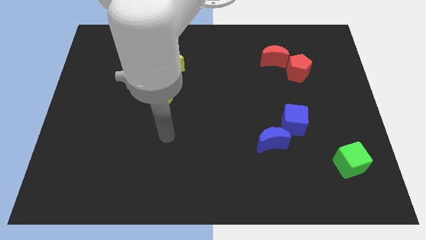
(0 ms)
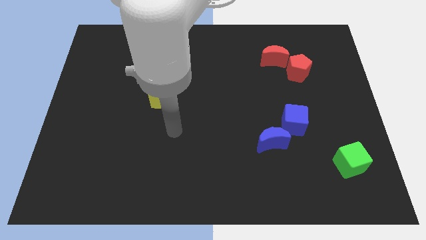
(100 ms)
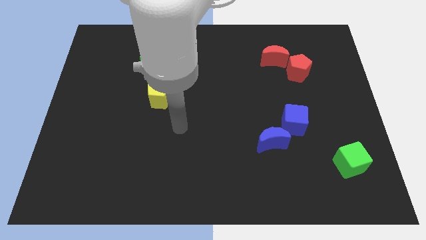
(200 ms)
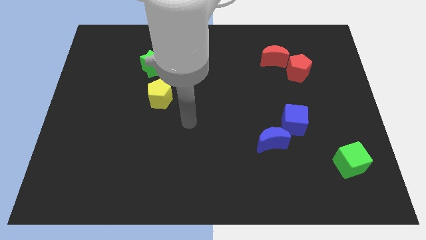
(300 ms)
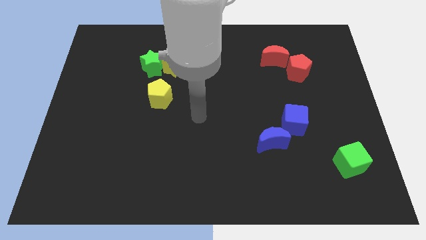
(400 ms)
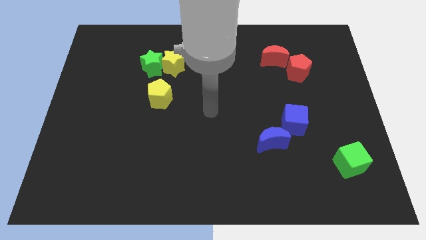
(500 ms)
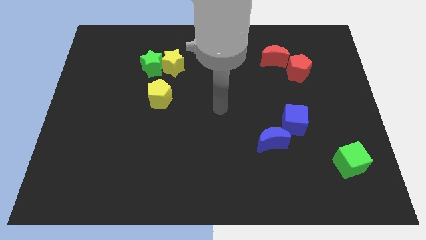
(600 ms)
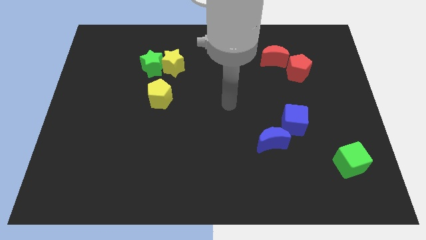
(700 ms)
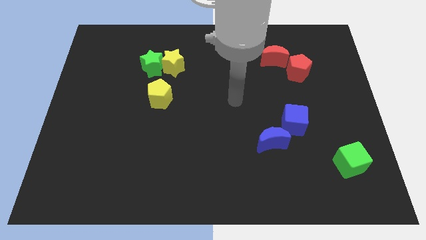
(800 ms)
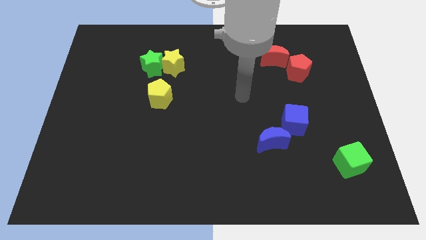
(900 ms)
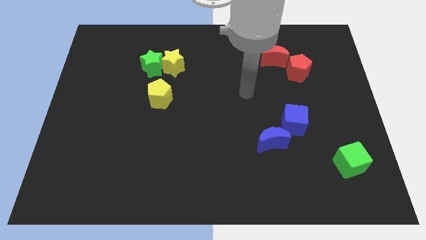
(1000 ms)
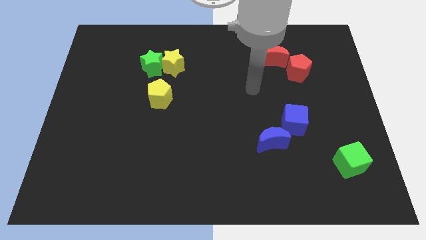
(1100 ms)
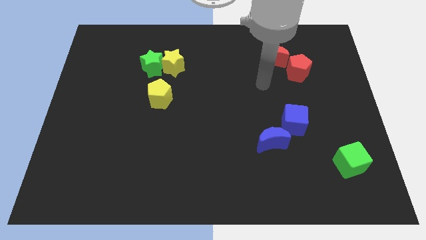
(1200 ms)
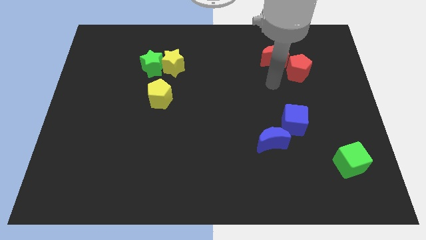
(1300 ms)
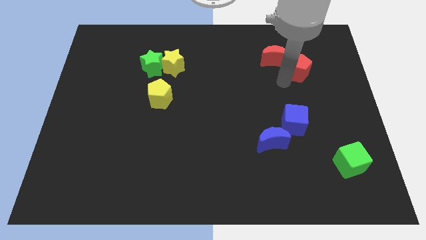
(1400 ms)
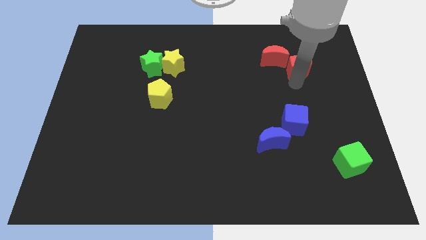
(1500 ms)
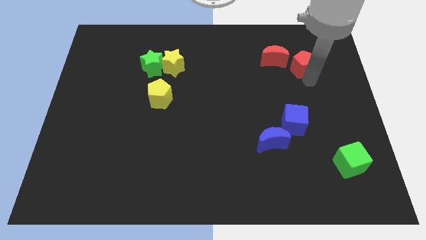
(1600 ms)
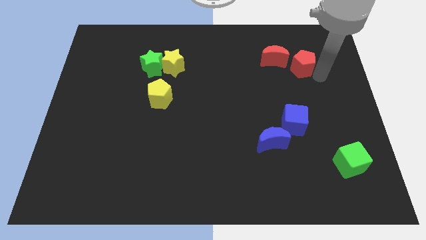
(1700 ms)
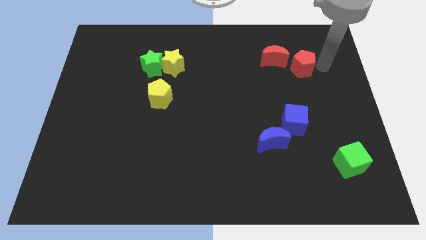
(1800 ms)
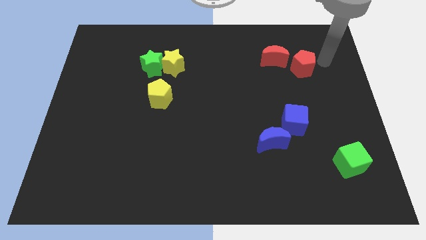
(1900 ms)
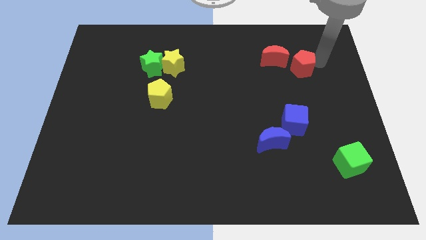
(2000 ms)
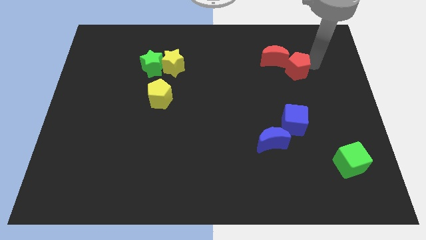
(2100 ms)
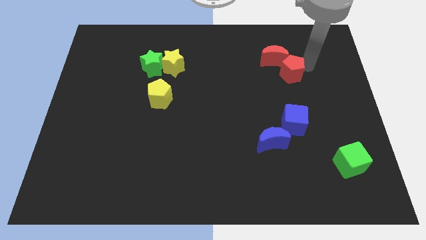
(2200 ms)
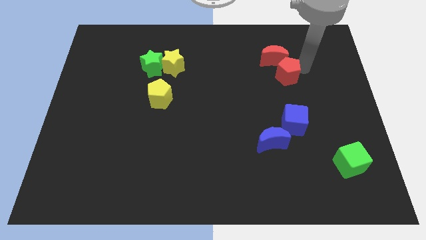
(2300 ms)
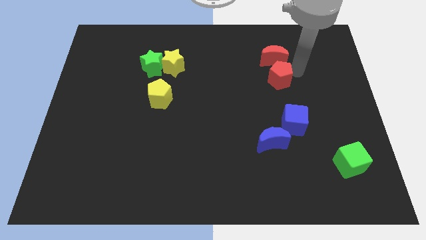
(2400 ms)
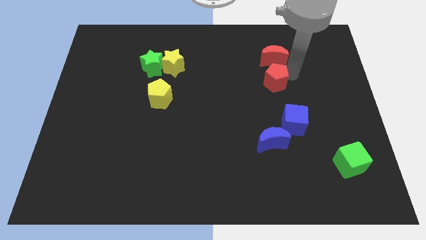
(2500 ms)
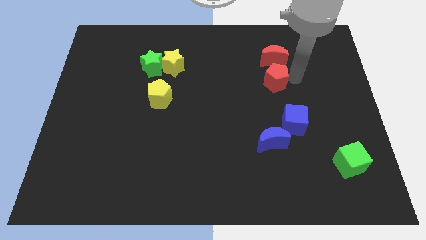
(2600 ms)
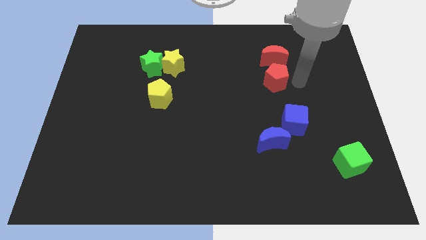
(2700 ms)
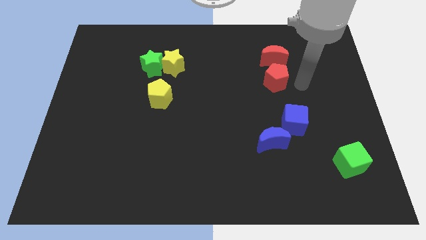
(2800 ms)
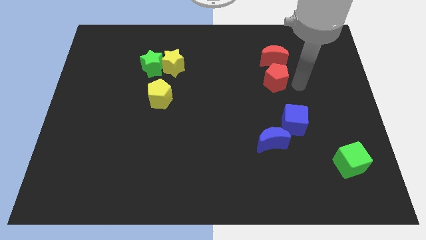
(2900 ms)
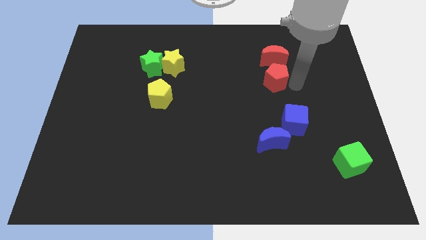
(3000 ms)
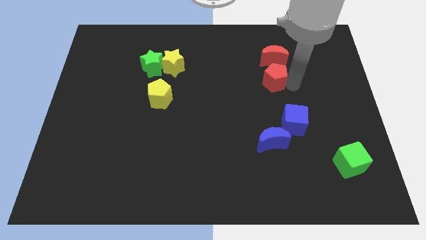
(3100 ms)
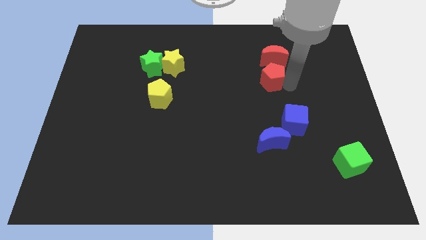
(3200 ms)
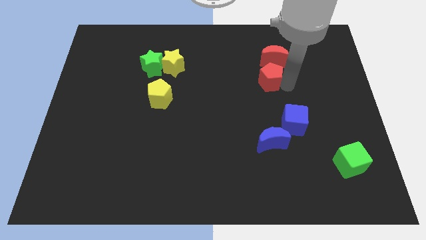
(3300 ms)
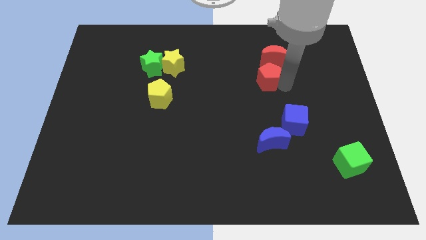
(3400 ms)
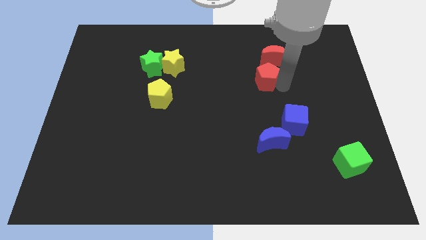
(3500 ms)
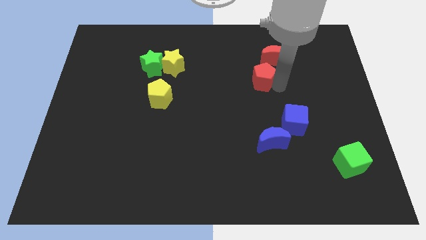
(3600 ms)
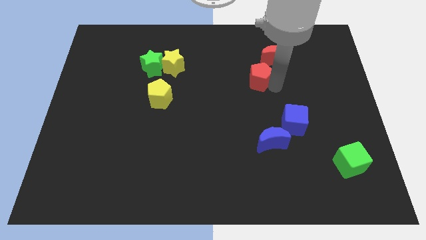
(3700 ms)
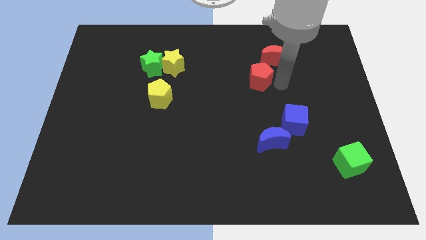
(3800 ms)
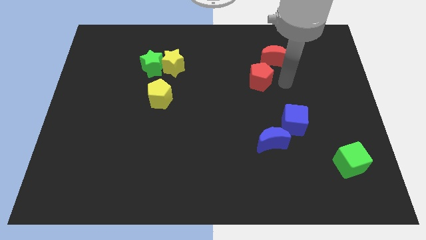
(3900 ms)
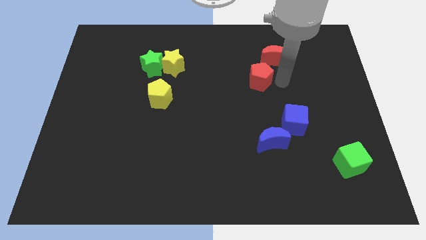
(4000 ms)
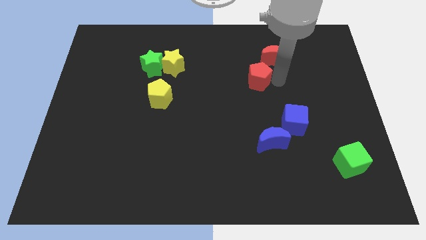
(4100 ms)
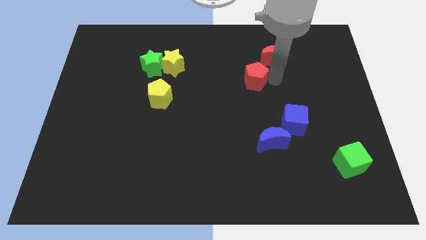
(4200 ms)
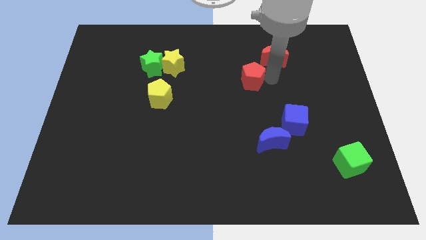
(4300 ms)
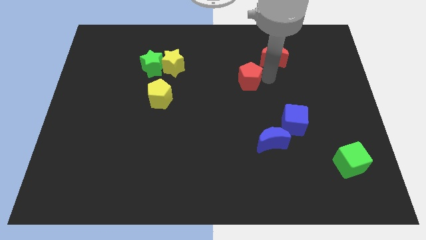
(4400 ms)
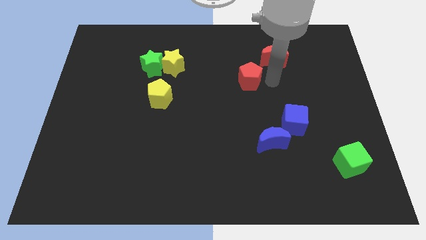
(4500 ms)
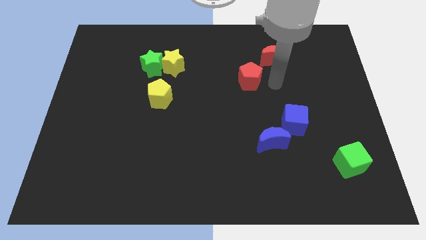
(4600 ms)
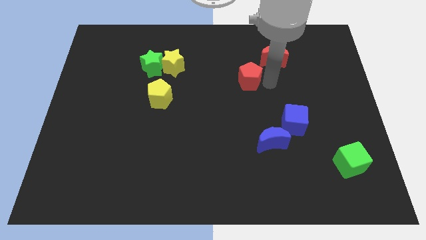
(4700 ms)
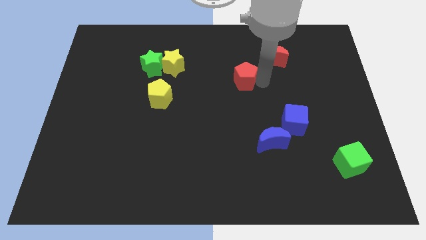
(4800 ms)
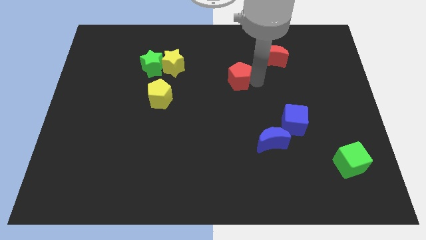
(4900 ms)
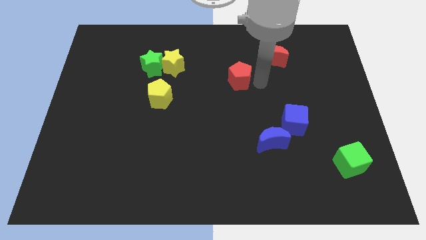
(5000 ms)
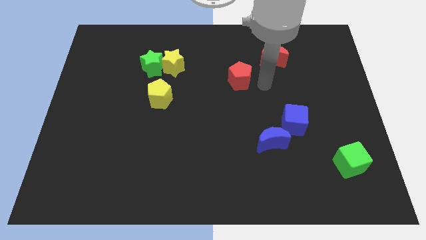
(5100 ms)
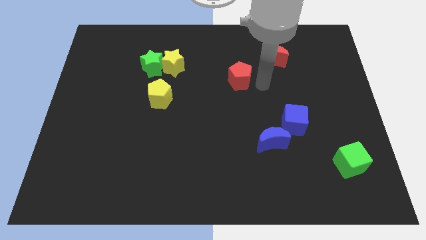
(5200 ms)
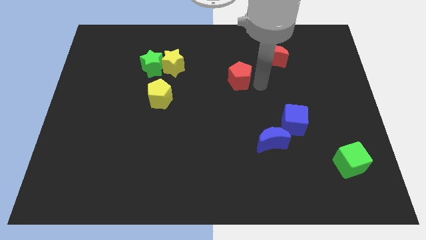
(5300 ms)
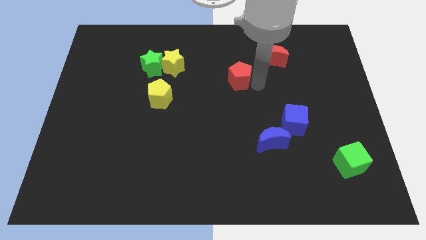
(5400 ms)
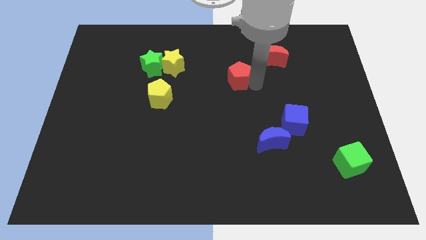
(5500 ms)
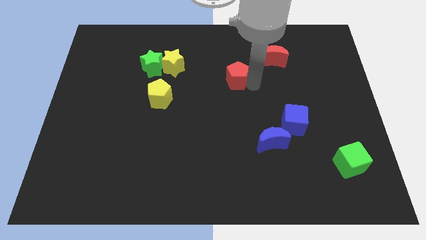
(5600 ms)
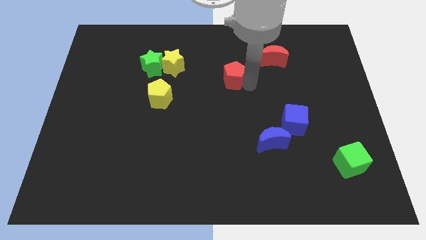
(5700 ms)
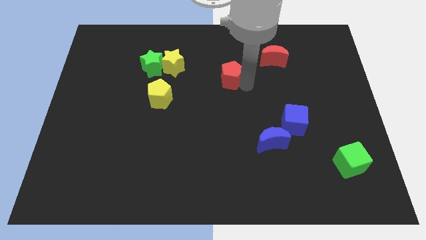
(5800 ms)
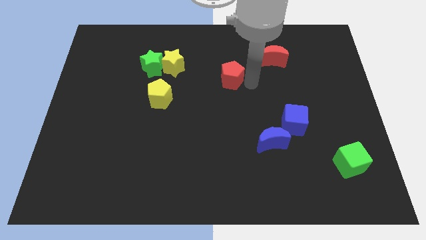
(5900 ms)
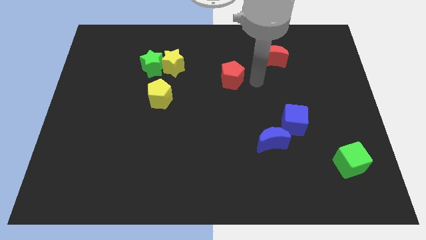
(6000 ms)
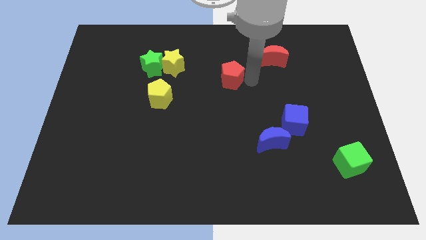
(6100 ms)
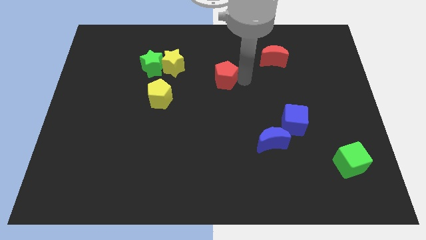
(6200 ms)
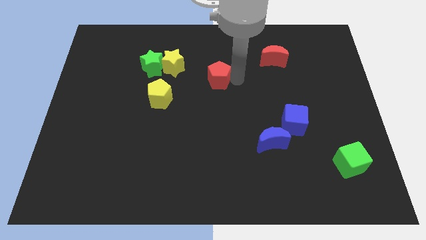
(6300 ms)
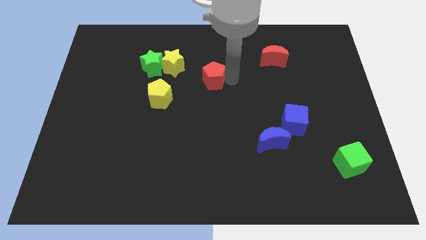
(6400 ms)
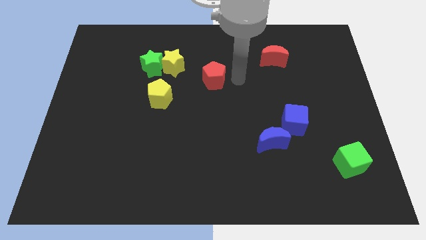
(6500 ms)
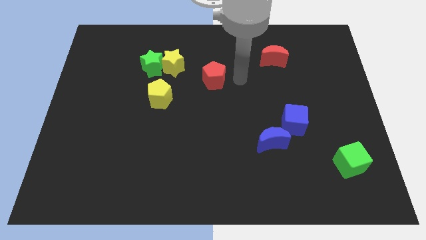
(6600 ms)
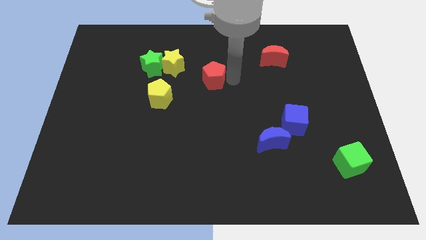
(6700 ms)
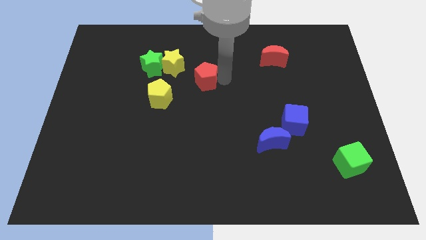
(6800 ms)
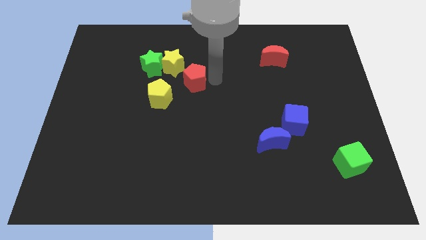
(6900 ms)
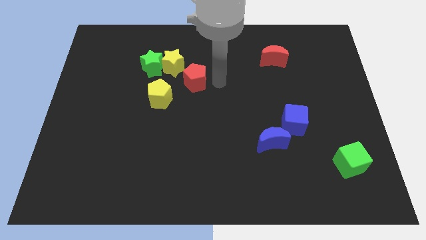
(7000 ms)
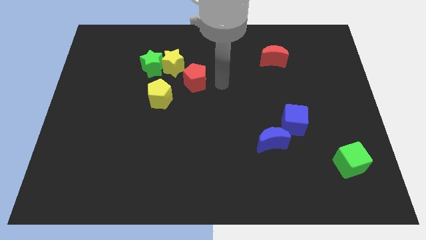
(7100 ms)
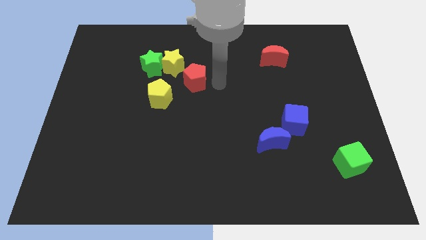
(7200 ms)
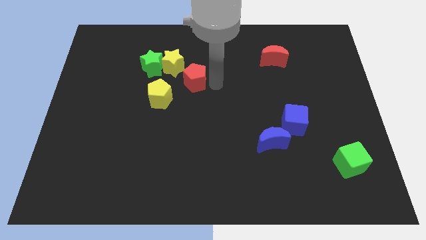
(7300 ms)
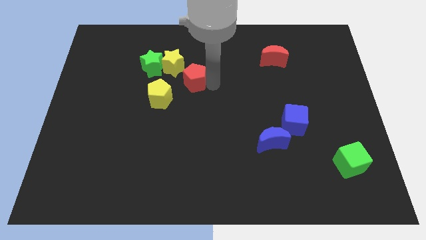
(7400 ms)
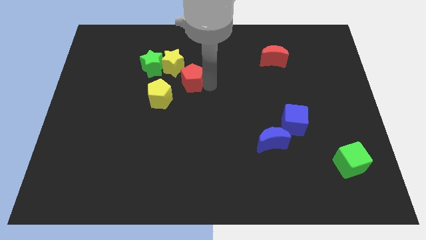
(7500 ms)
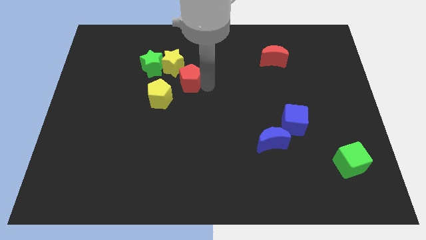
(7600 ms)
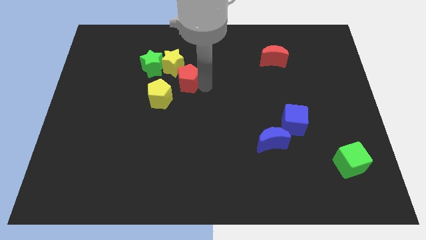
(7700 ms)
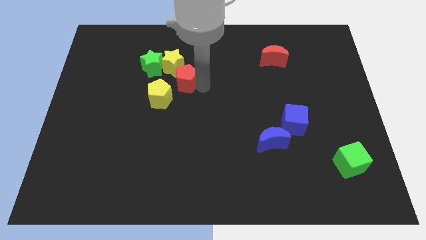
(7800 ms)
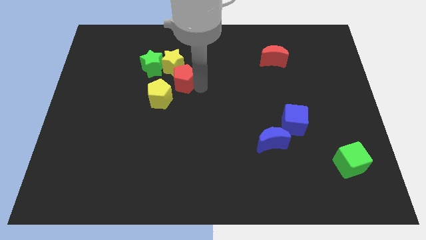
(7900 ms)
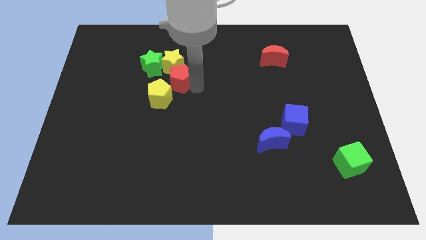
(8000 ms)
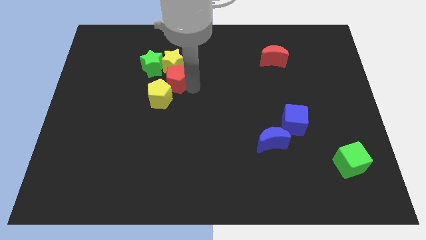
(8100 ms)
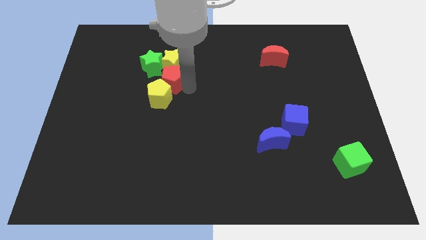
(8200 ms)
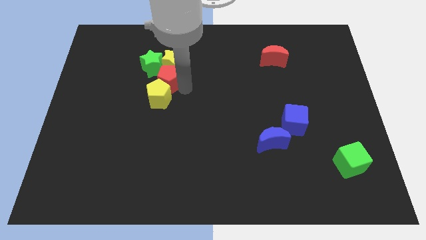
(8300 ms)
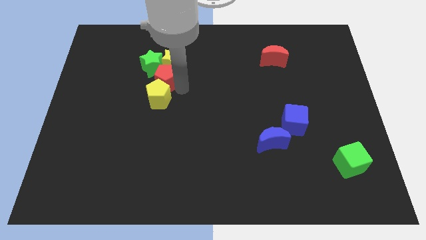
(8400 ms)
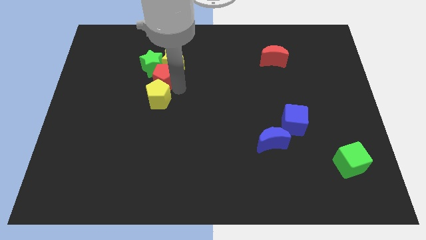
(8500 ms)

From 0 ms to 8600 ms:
slide the red pentagon next to the green star

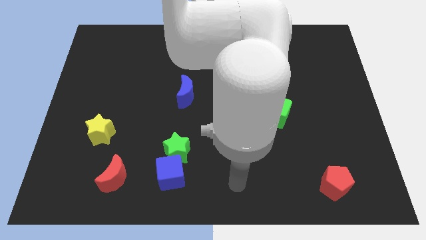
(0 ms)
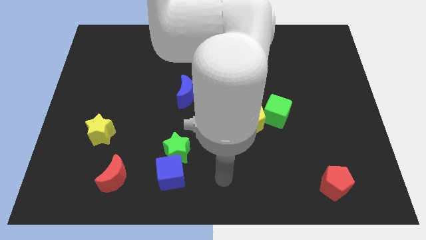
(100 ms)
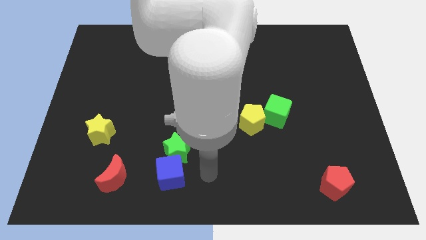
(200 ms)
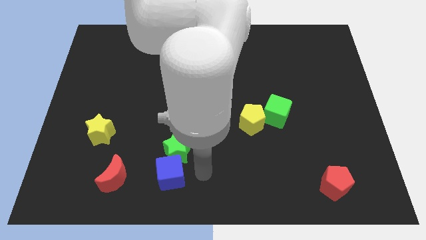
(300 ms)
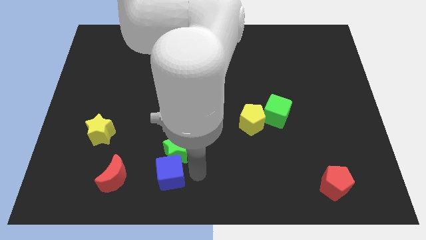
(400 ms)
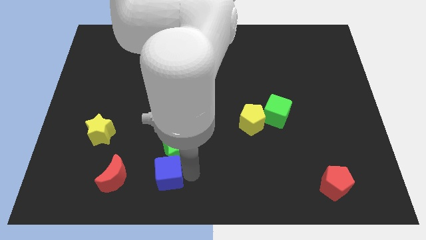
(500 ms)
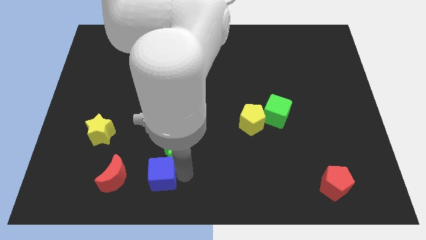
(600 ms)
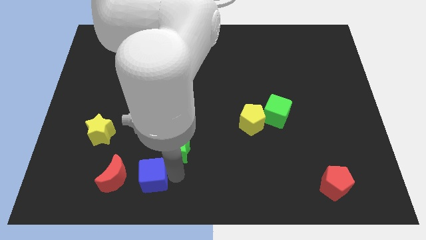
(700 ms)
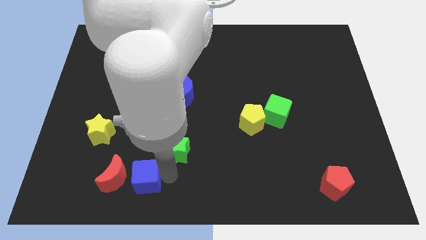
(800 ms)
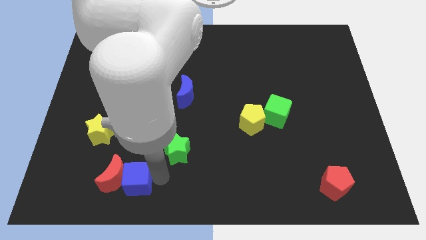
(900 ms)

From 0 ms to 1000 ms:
put the blue cube next to the red moon
